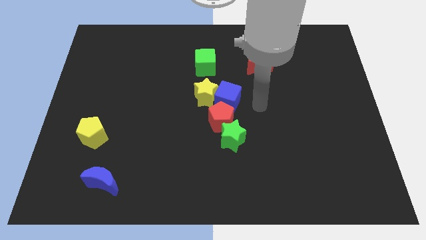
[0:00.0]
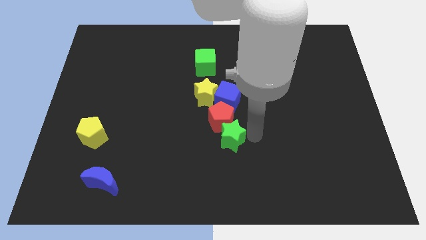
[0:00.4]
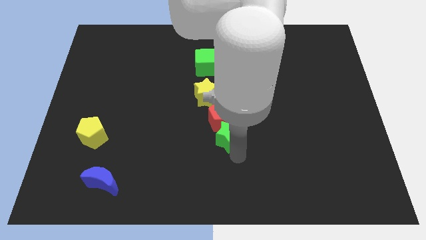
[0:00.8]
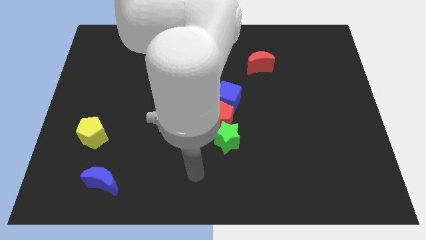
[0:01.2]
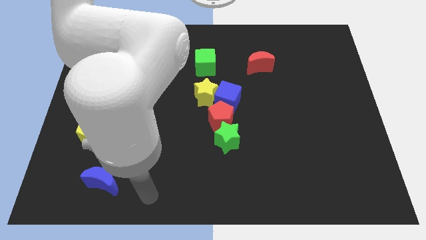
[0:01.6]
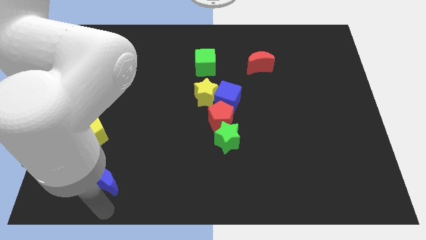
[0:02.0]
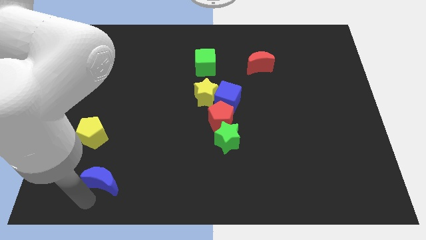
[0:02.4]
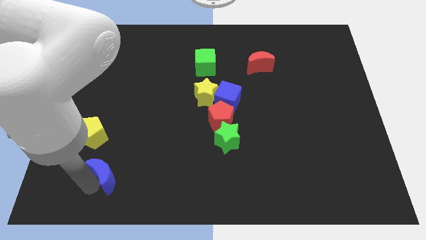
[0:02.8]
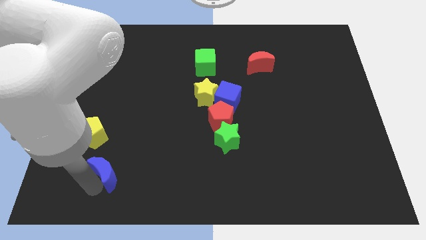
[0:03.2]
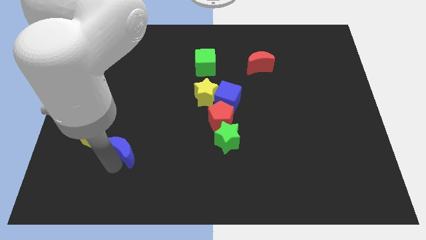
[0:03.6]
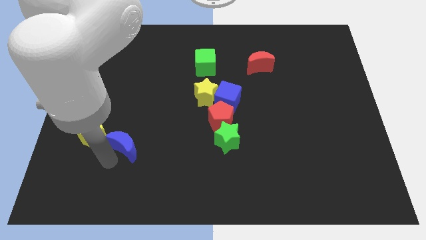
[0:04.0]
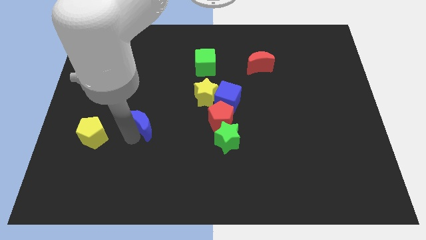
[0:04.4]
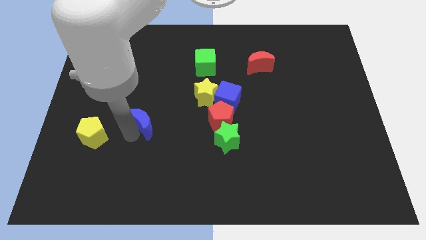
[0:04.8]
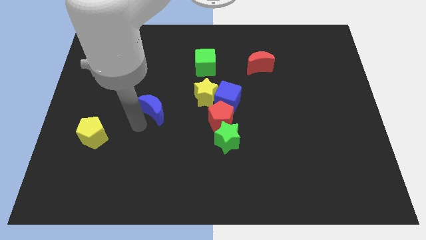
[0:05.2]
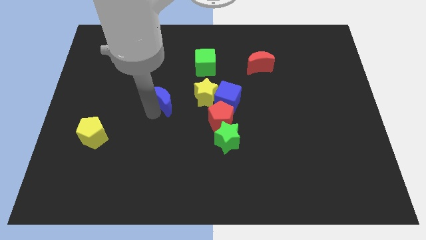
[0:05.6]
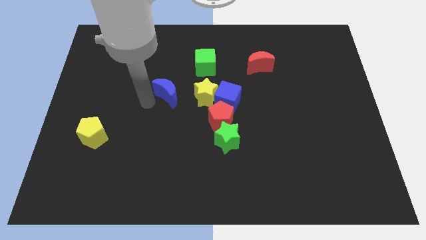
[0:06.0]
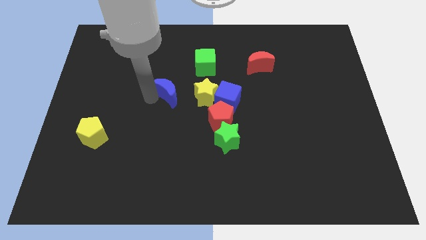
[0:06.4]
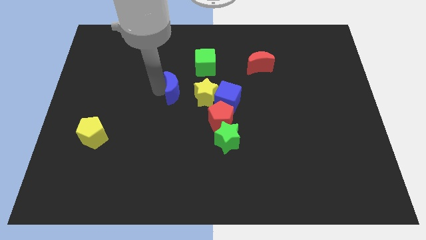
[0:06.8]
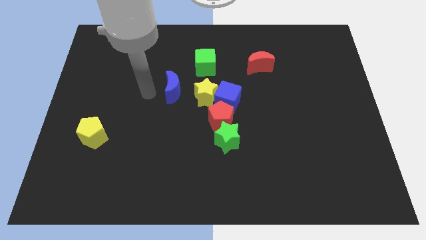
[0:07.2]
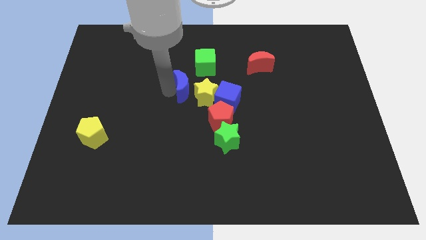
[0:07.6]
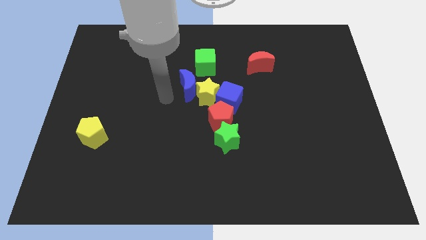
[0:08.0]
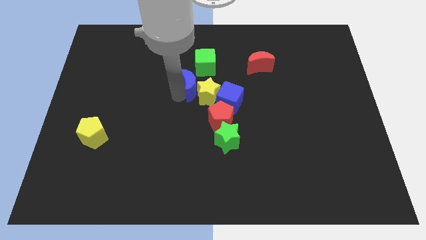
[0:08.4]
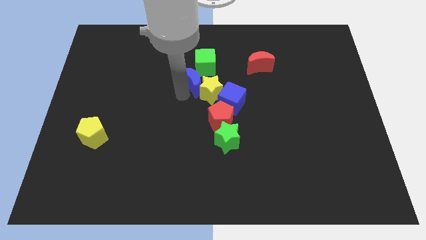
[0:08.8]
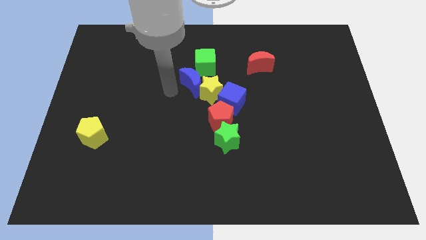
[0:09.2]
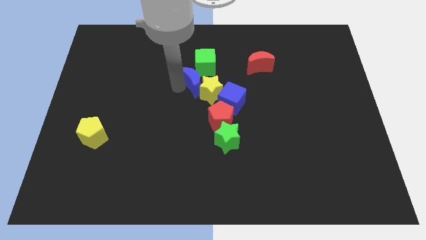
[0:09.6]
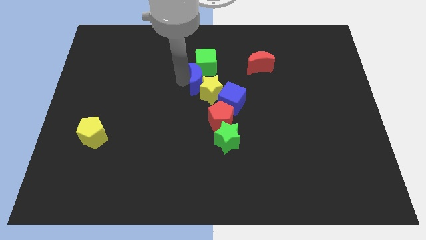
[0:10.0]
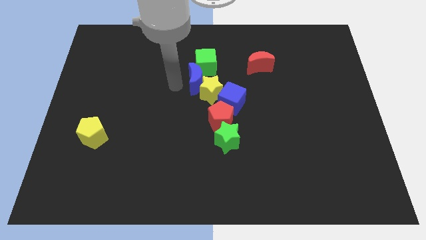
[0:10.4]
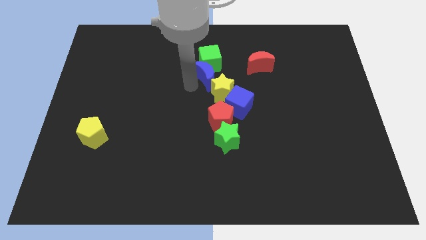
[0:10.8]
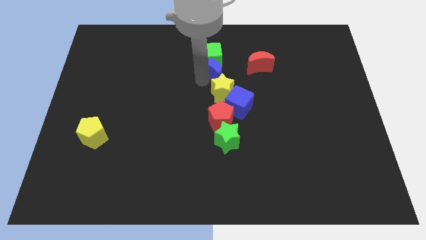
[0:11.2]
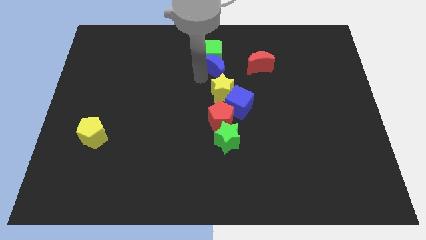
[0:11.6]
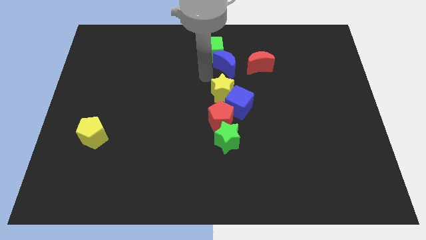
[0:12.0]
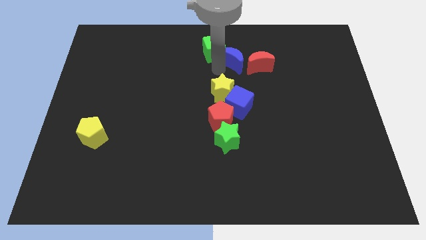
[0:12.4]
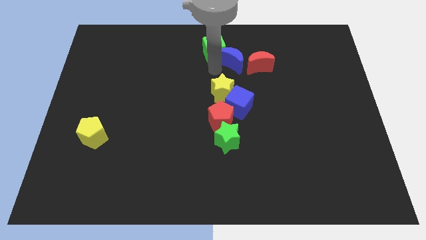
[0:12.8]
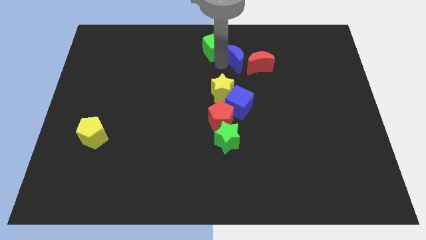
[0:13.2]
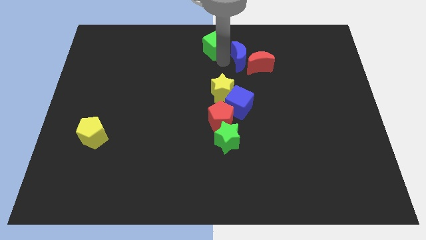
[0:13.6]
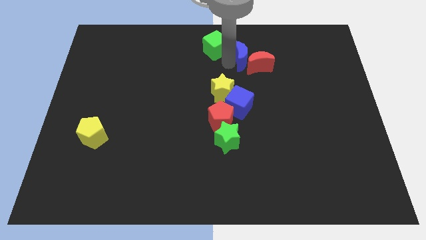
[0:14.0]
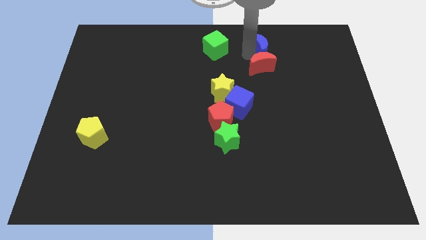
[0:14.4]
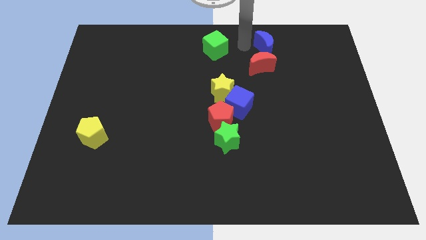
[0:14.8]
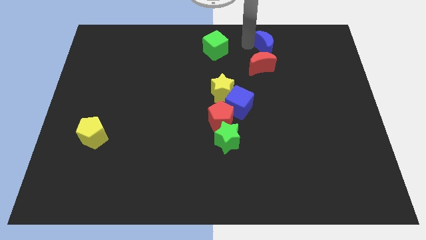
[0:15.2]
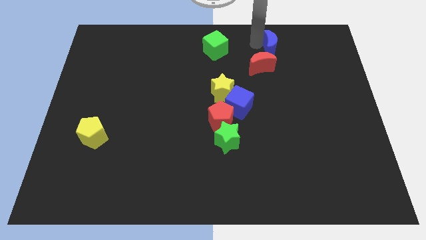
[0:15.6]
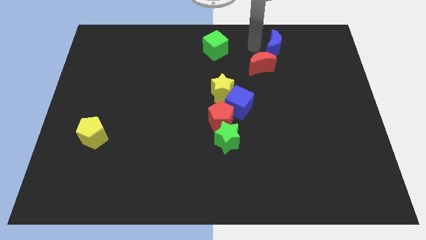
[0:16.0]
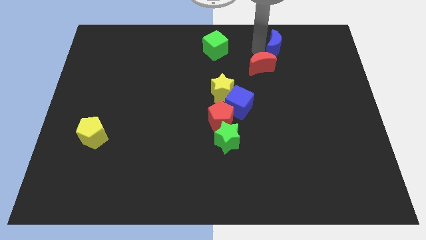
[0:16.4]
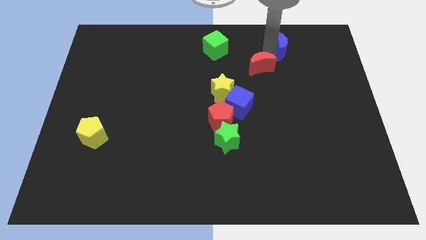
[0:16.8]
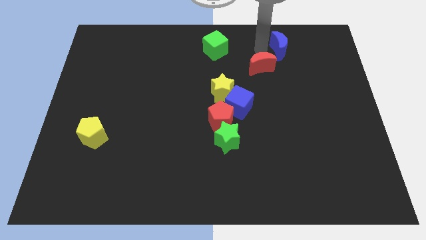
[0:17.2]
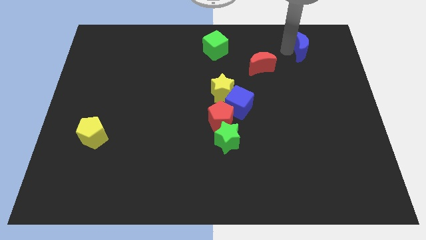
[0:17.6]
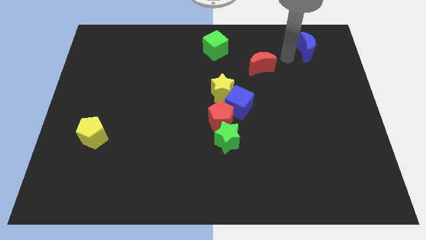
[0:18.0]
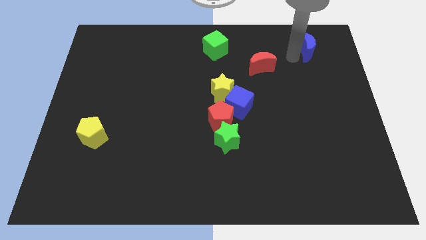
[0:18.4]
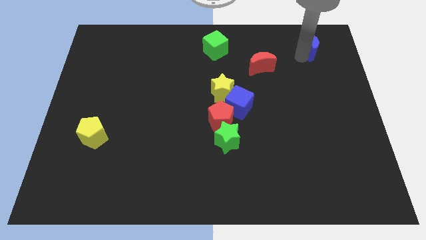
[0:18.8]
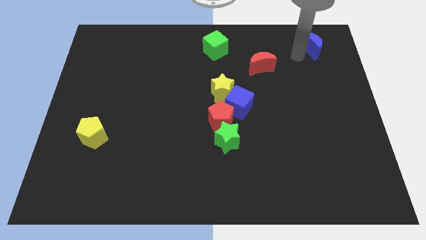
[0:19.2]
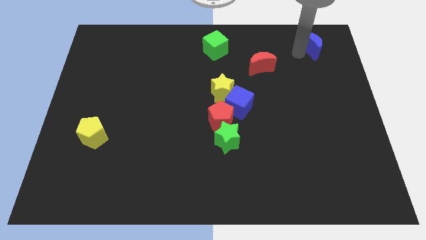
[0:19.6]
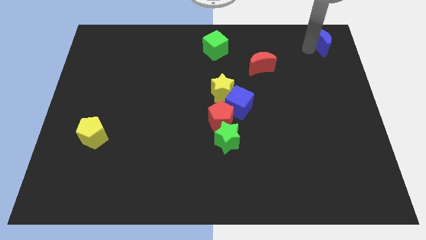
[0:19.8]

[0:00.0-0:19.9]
slide the blue moon to the top right of the board

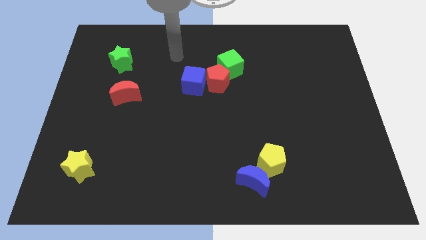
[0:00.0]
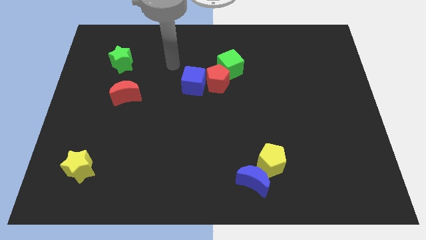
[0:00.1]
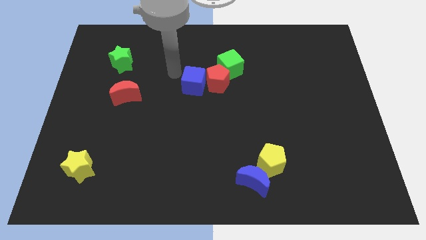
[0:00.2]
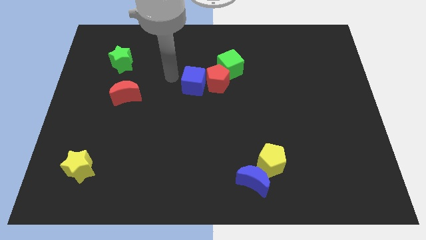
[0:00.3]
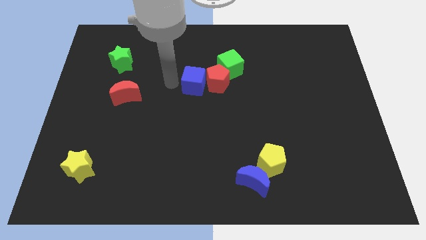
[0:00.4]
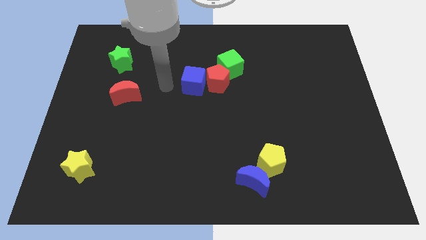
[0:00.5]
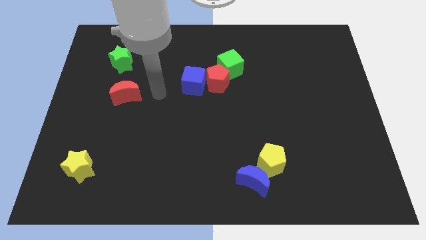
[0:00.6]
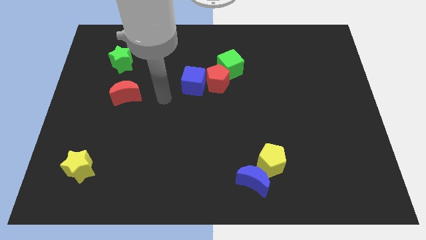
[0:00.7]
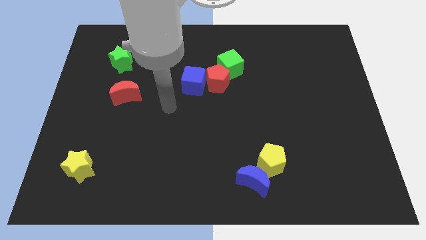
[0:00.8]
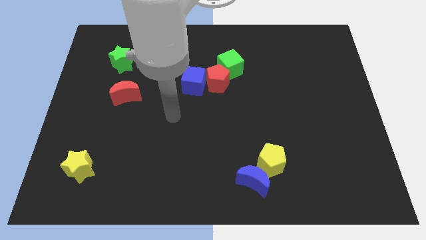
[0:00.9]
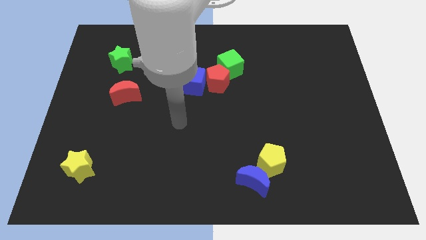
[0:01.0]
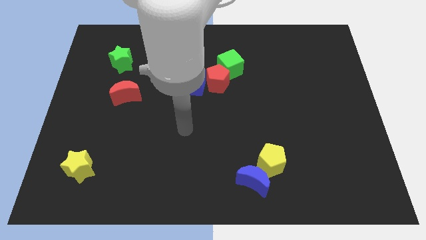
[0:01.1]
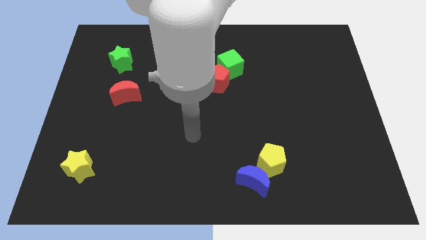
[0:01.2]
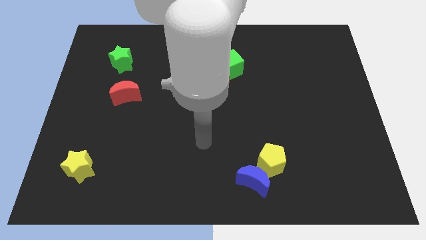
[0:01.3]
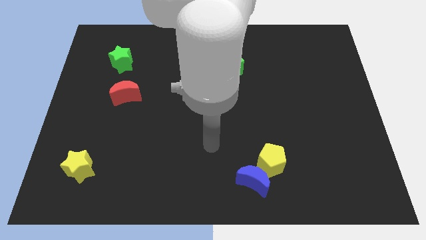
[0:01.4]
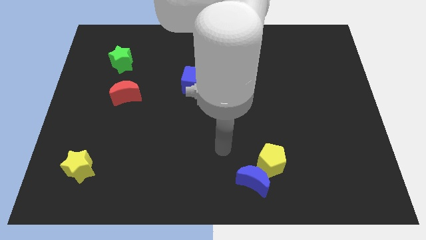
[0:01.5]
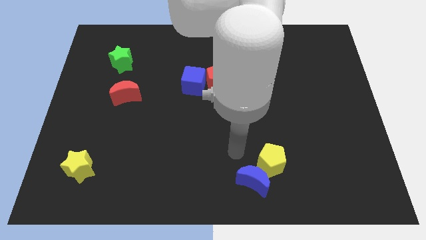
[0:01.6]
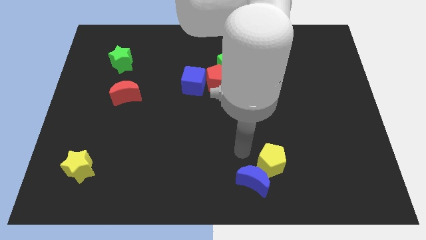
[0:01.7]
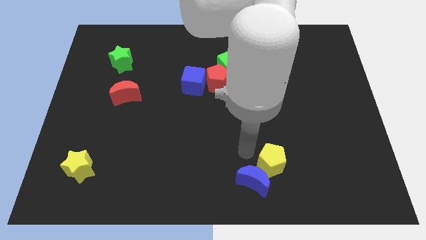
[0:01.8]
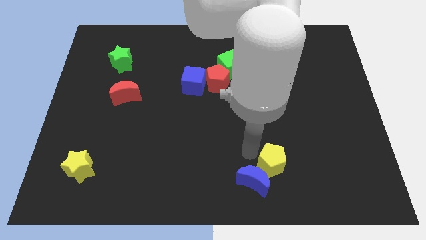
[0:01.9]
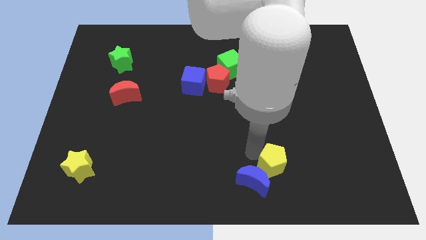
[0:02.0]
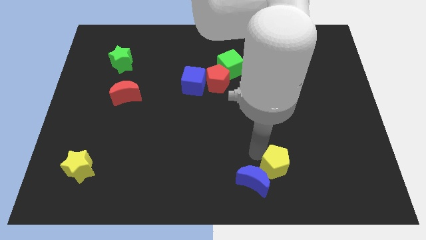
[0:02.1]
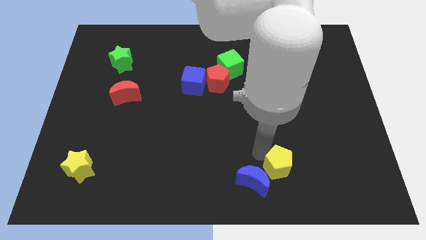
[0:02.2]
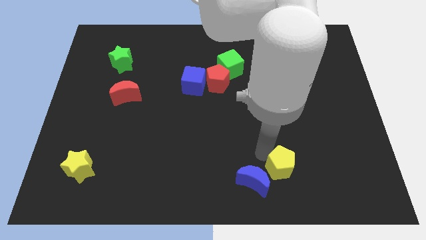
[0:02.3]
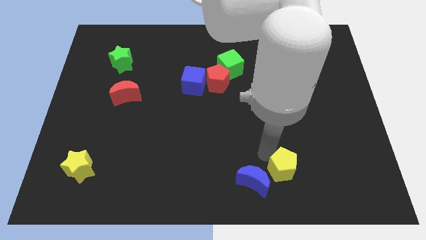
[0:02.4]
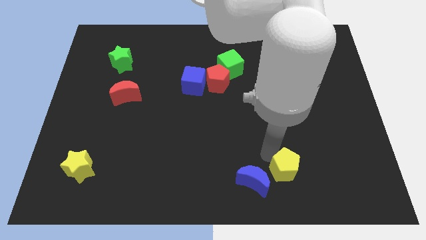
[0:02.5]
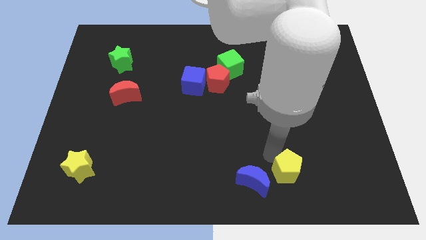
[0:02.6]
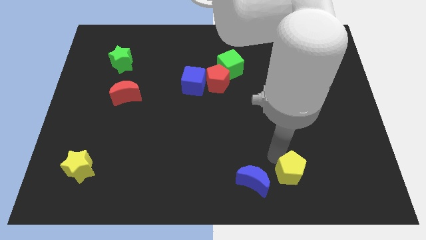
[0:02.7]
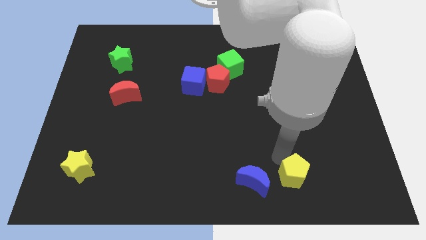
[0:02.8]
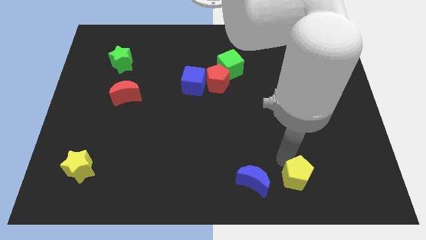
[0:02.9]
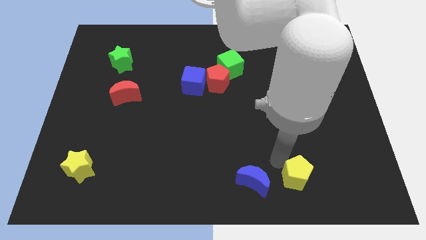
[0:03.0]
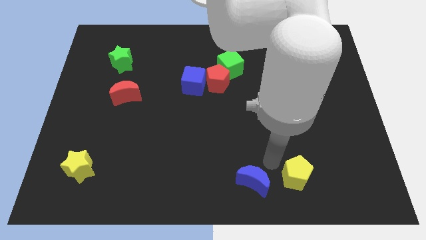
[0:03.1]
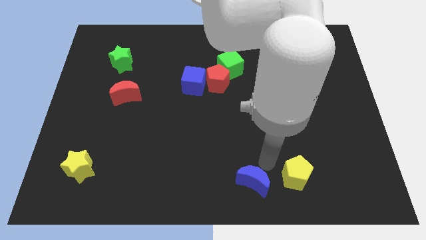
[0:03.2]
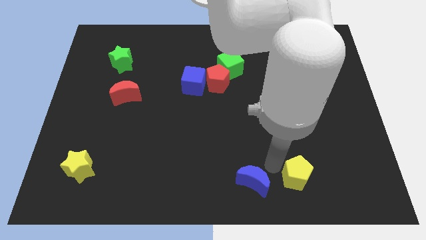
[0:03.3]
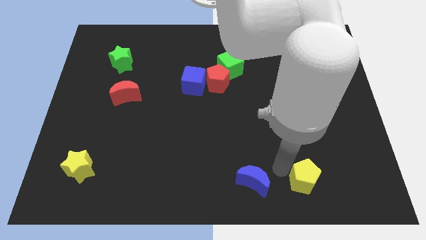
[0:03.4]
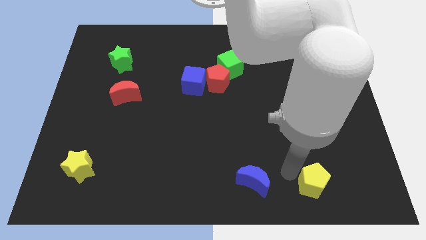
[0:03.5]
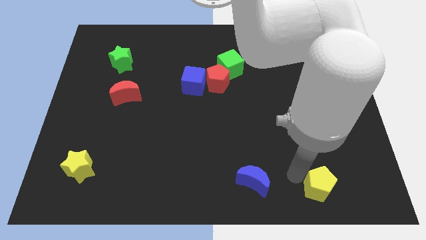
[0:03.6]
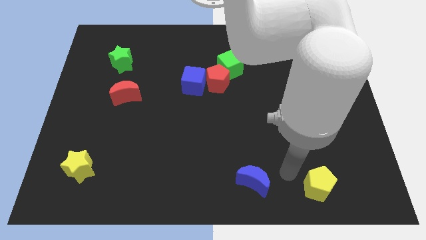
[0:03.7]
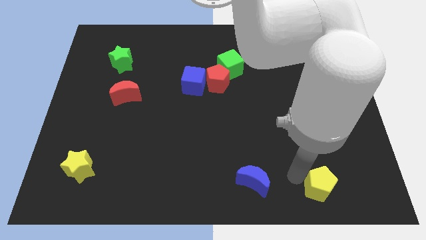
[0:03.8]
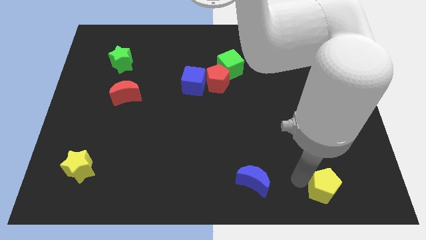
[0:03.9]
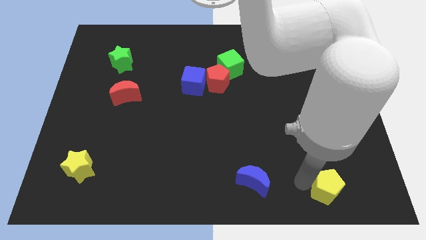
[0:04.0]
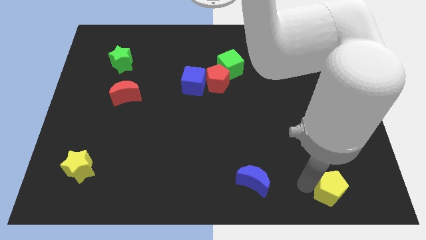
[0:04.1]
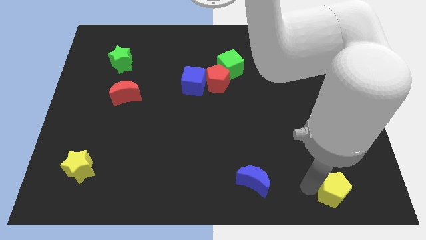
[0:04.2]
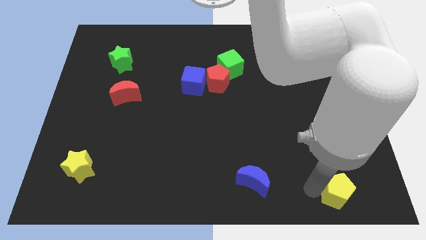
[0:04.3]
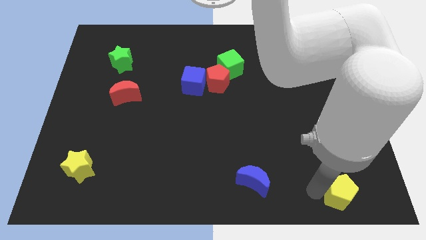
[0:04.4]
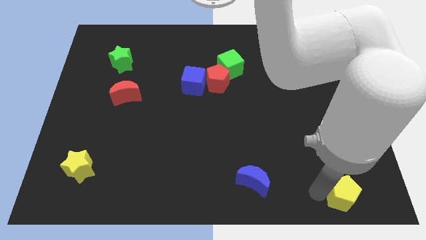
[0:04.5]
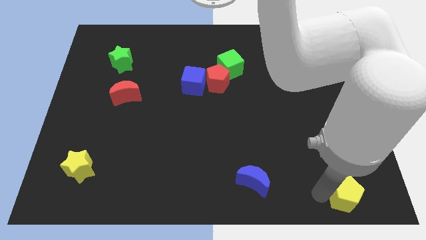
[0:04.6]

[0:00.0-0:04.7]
move the yellow pentagon to the bottom right
